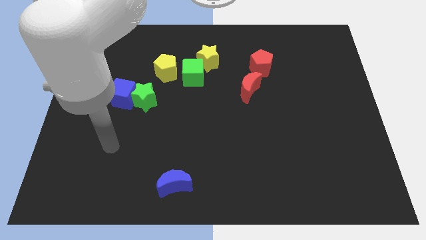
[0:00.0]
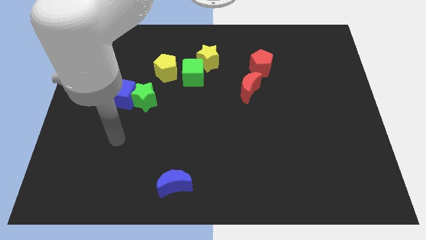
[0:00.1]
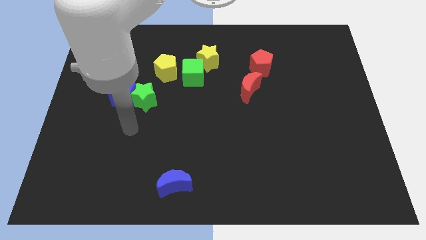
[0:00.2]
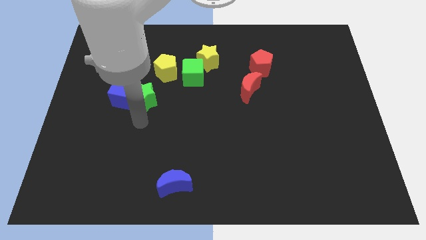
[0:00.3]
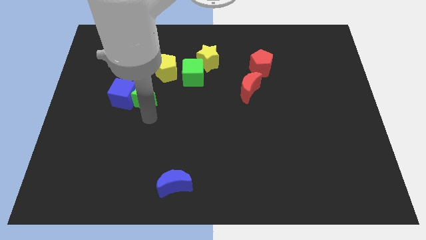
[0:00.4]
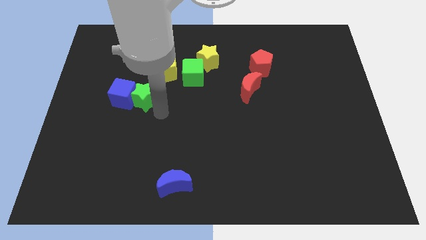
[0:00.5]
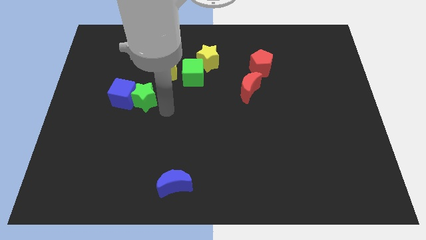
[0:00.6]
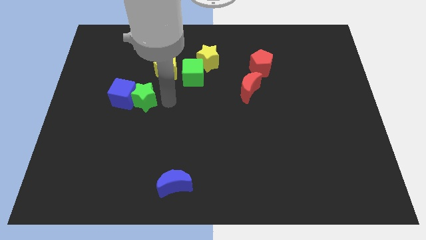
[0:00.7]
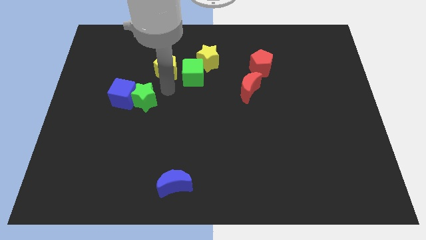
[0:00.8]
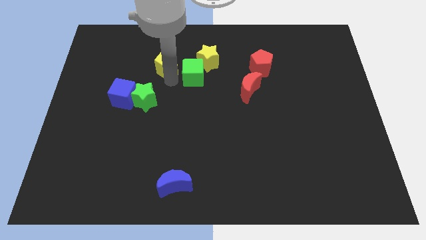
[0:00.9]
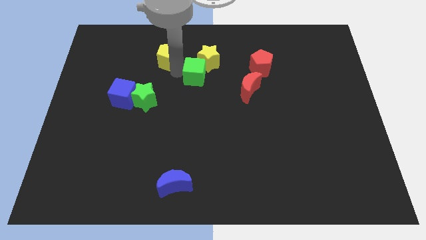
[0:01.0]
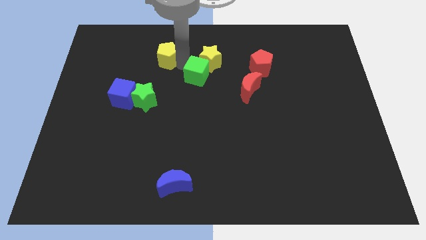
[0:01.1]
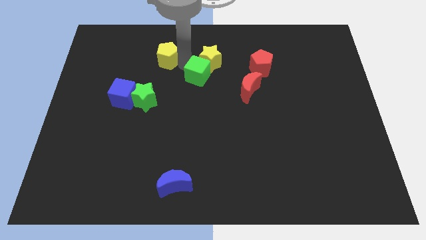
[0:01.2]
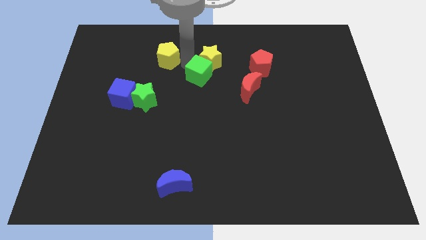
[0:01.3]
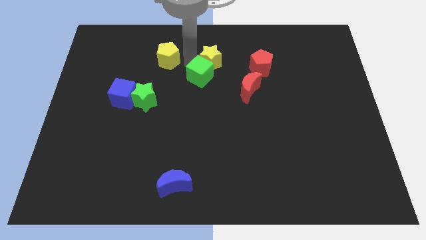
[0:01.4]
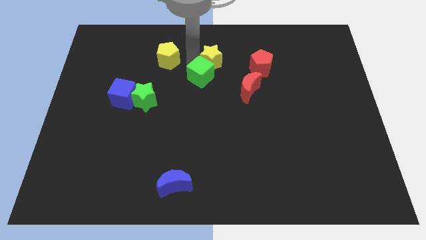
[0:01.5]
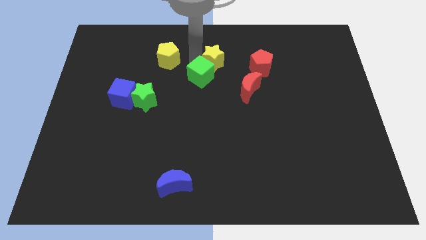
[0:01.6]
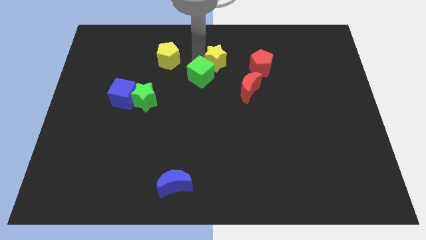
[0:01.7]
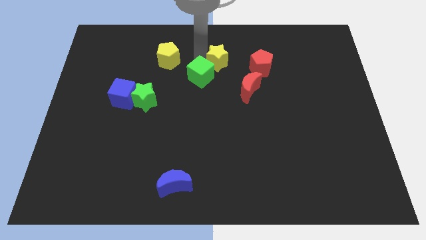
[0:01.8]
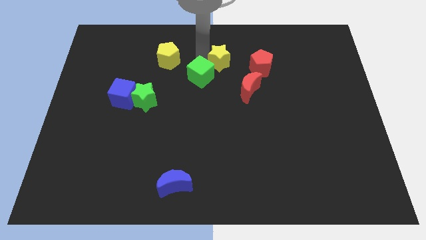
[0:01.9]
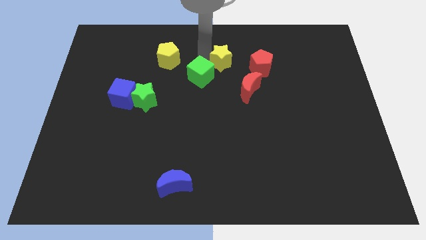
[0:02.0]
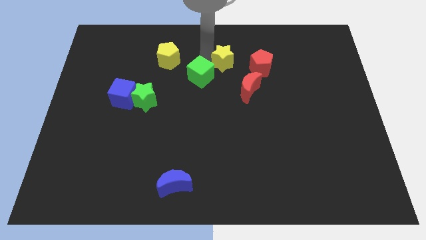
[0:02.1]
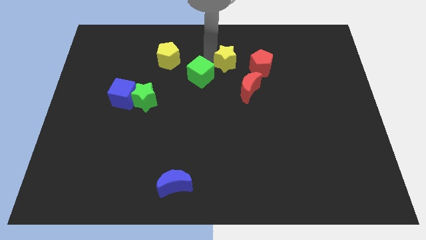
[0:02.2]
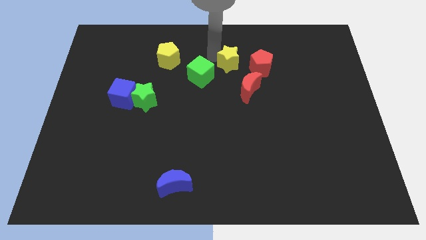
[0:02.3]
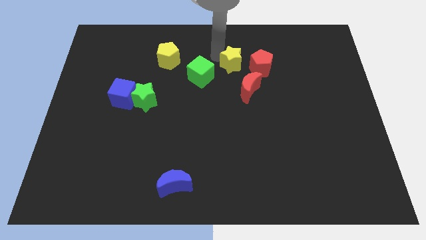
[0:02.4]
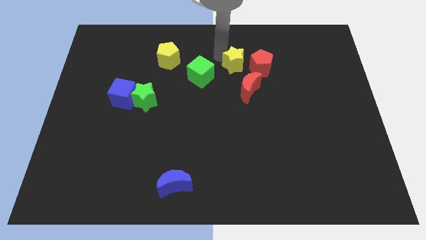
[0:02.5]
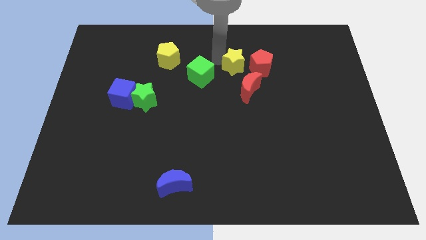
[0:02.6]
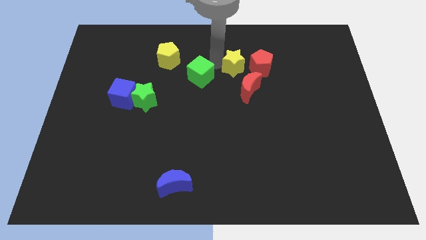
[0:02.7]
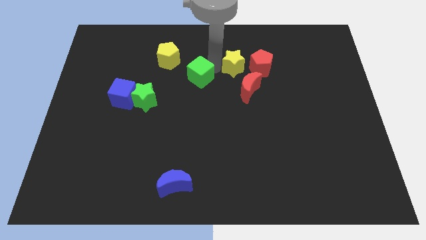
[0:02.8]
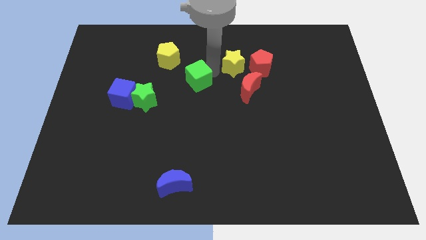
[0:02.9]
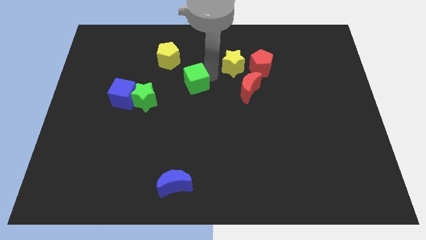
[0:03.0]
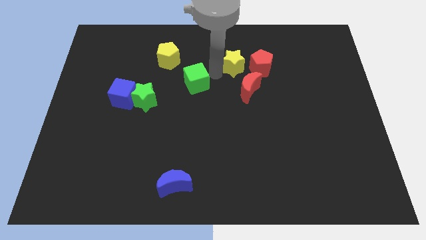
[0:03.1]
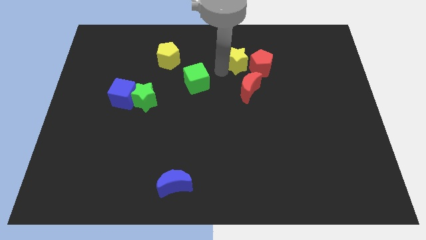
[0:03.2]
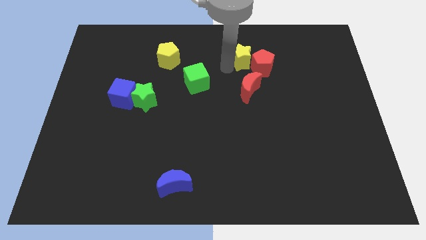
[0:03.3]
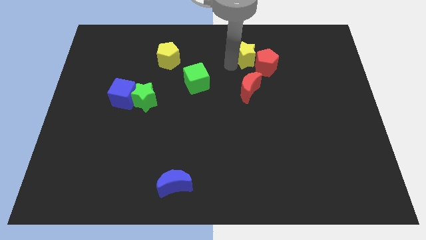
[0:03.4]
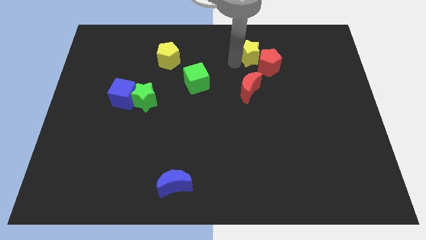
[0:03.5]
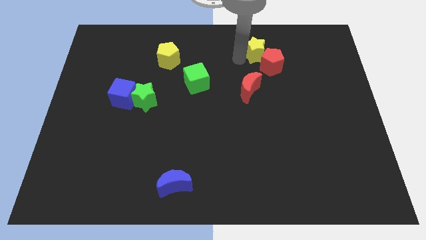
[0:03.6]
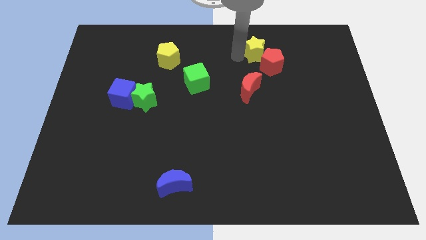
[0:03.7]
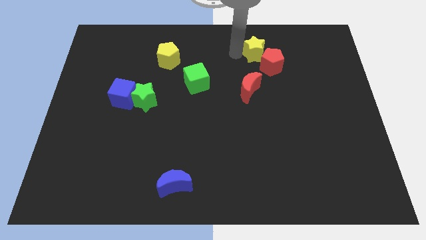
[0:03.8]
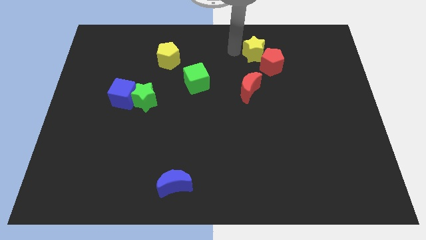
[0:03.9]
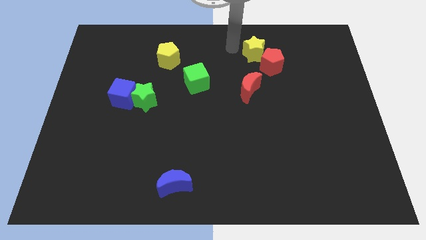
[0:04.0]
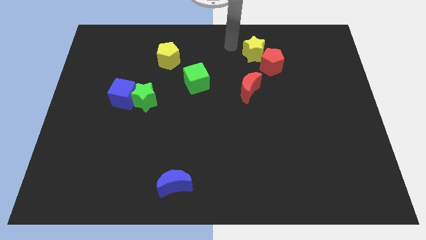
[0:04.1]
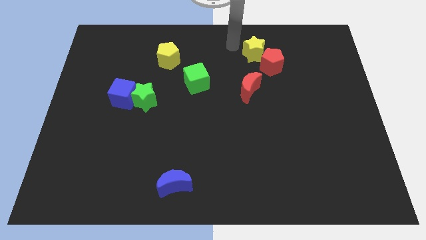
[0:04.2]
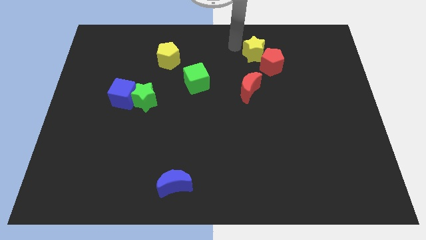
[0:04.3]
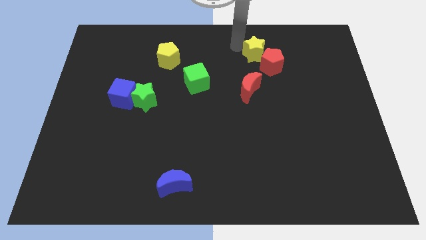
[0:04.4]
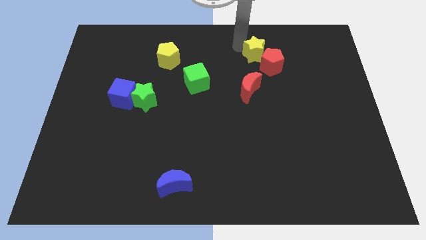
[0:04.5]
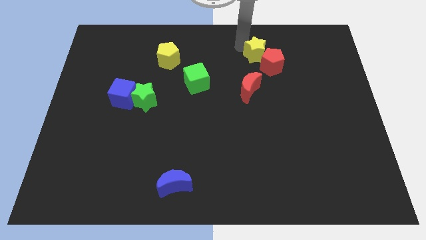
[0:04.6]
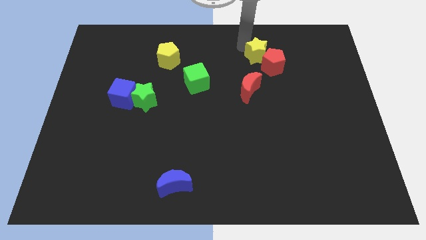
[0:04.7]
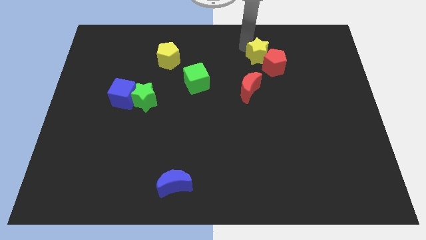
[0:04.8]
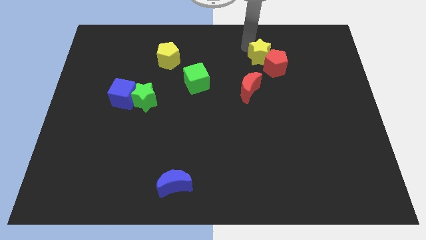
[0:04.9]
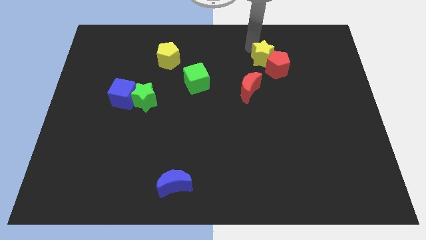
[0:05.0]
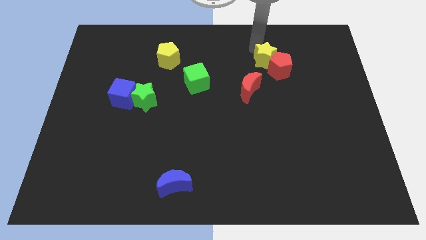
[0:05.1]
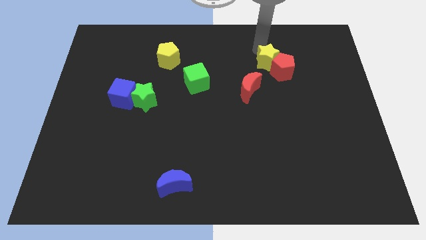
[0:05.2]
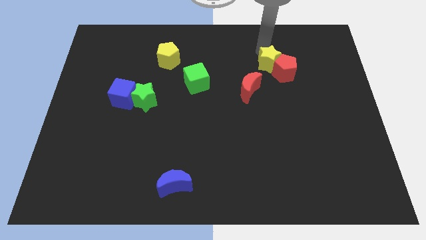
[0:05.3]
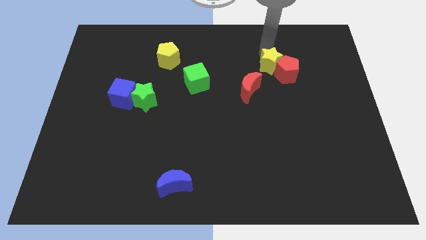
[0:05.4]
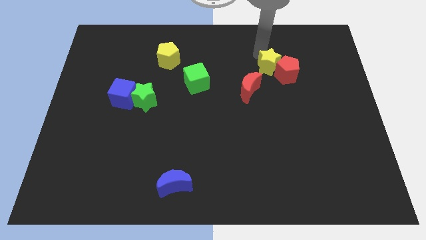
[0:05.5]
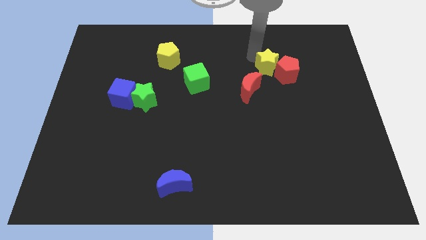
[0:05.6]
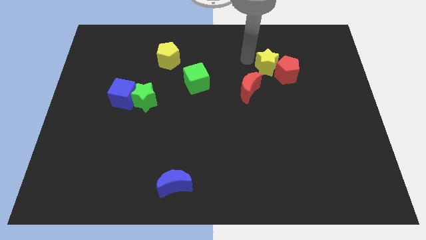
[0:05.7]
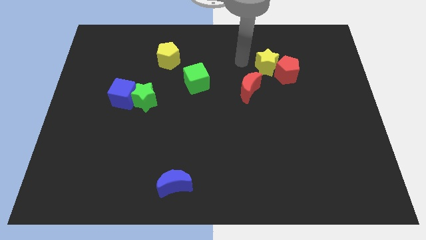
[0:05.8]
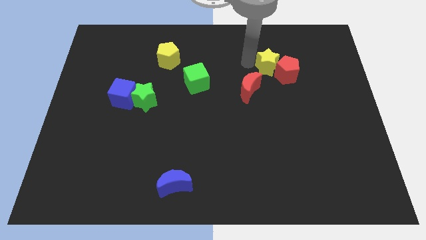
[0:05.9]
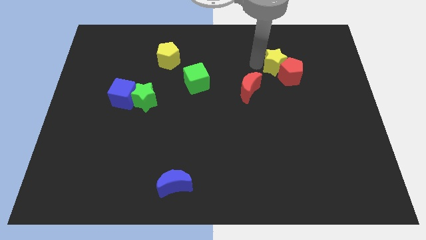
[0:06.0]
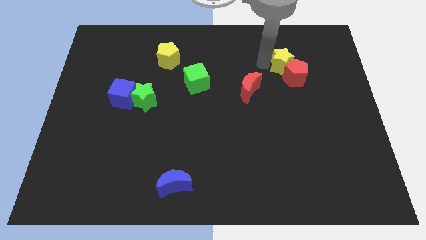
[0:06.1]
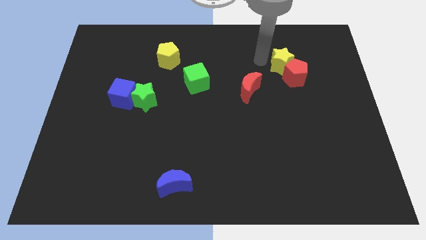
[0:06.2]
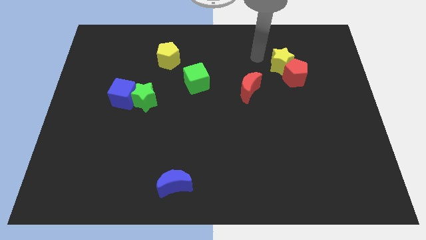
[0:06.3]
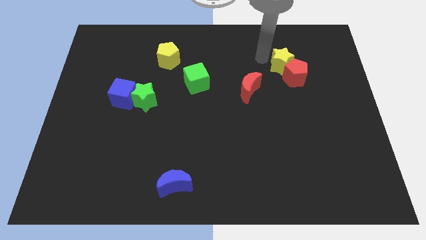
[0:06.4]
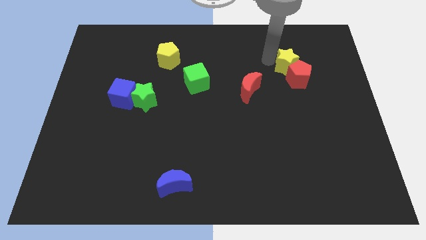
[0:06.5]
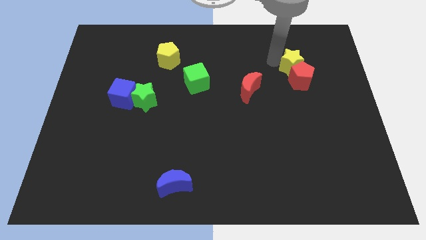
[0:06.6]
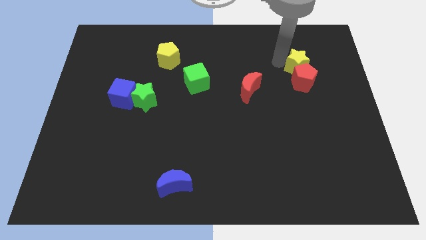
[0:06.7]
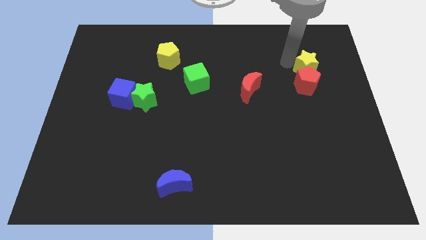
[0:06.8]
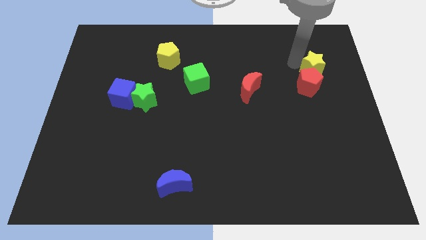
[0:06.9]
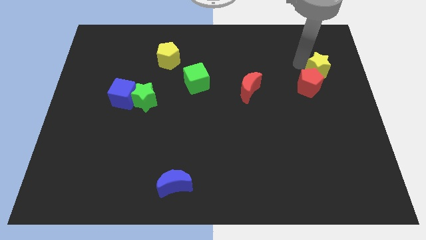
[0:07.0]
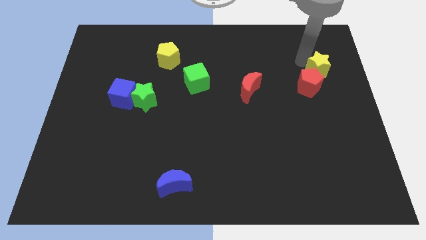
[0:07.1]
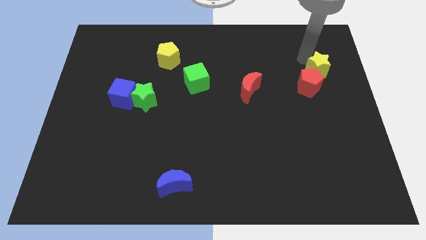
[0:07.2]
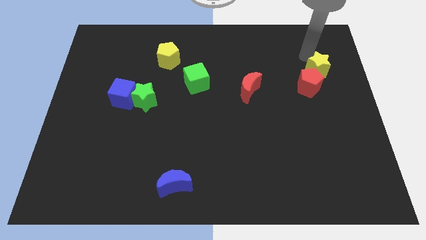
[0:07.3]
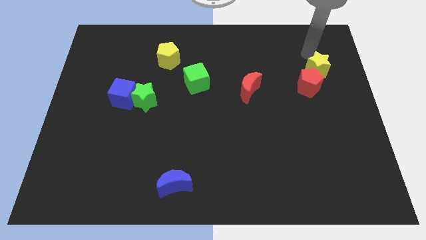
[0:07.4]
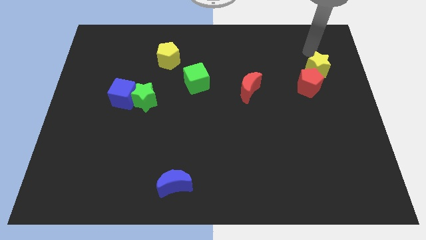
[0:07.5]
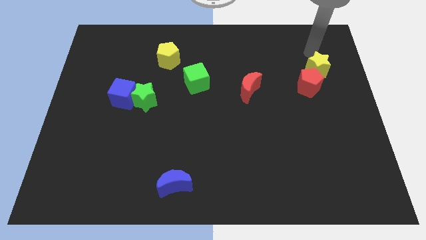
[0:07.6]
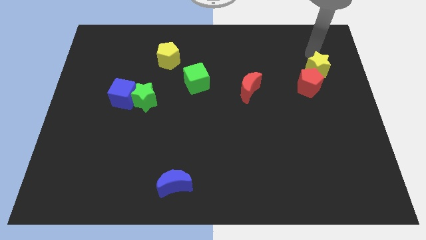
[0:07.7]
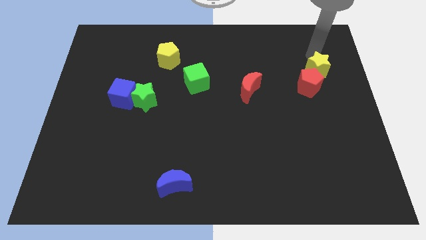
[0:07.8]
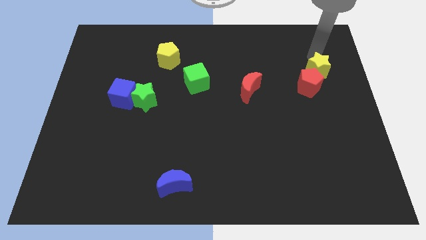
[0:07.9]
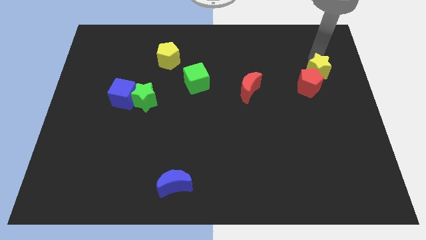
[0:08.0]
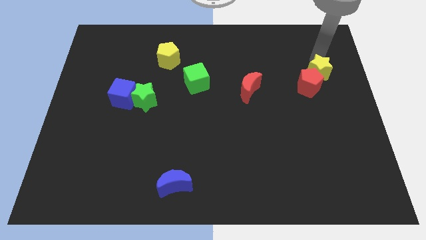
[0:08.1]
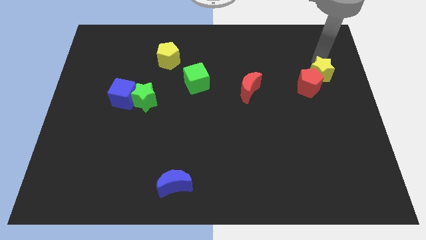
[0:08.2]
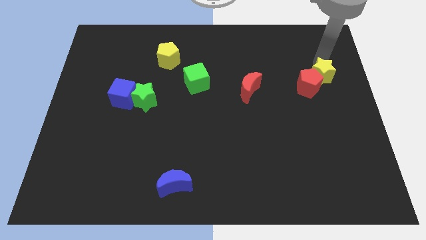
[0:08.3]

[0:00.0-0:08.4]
push the yellow star to the right side
